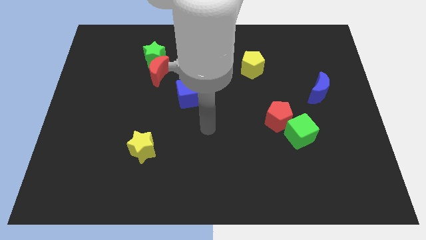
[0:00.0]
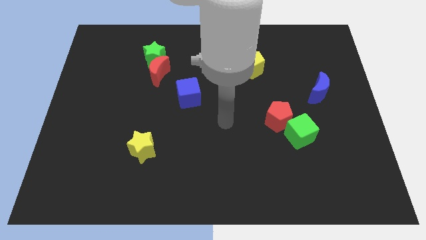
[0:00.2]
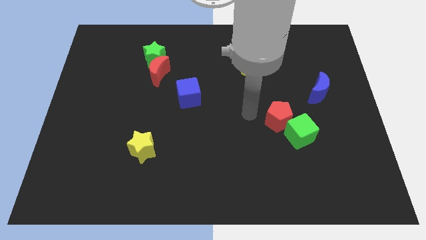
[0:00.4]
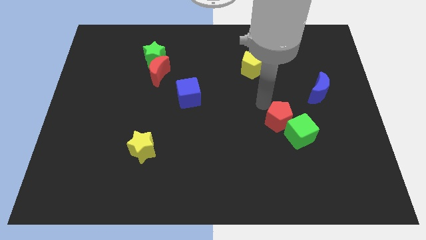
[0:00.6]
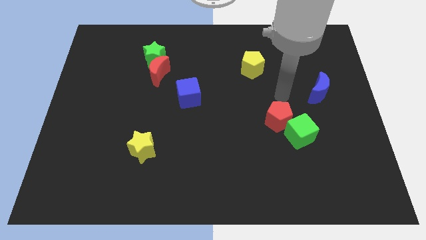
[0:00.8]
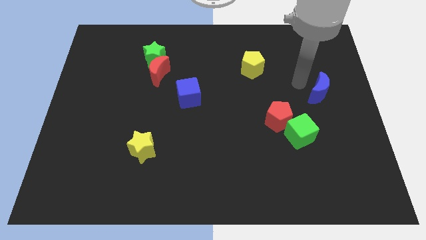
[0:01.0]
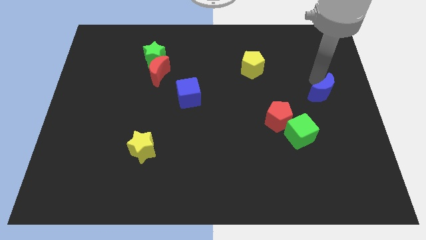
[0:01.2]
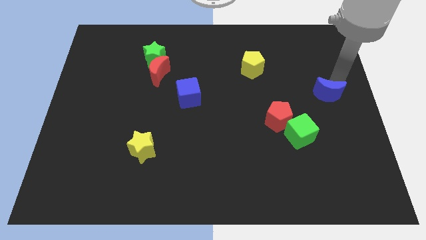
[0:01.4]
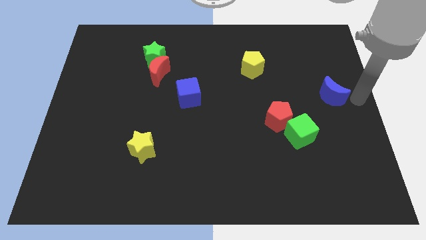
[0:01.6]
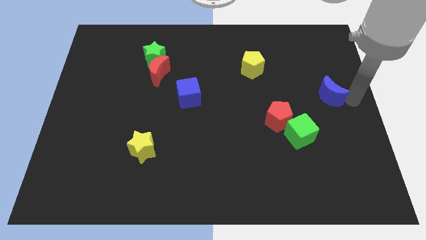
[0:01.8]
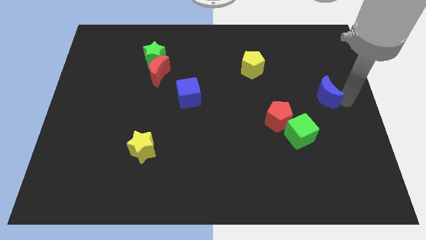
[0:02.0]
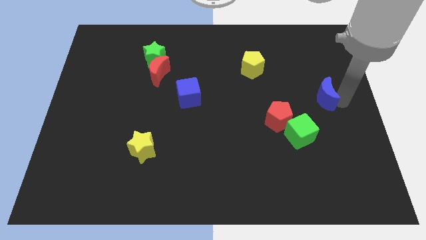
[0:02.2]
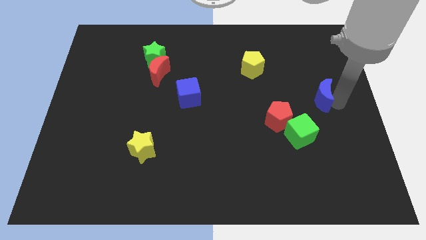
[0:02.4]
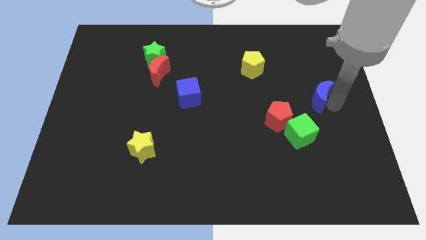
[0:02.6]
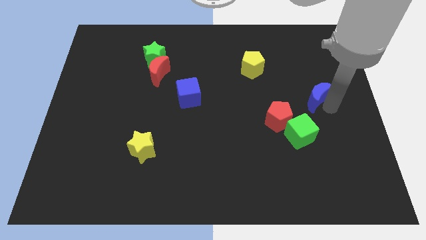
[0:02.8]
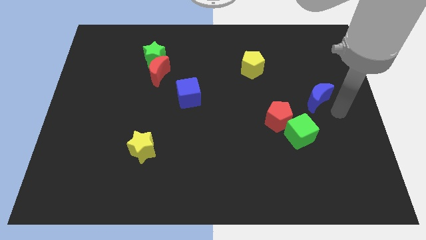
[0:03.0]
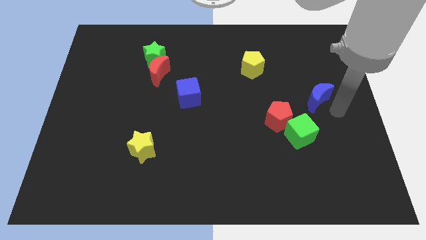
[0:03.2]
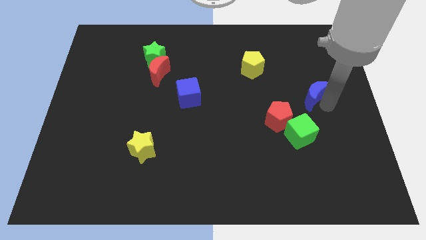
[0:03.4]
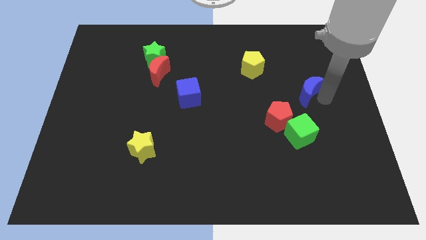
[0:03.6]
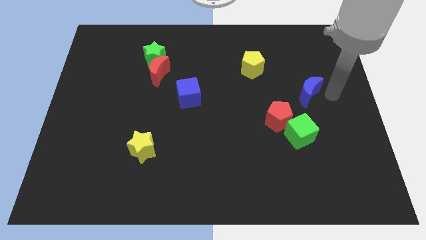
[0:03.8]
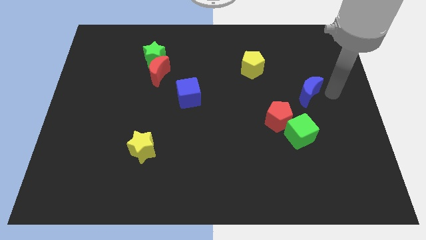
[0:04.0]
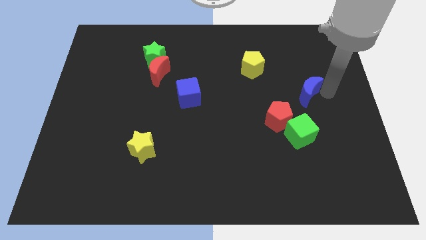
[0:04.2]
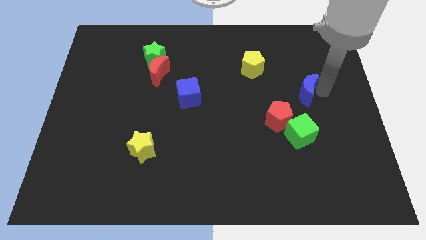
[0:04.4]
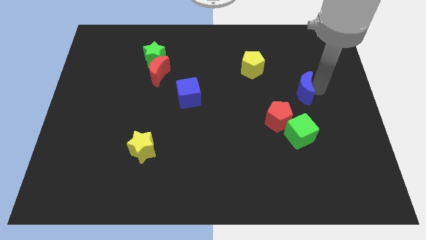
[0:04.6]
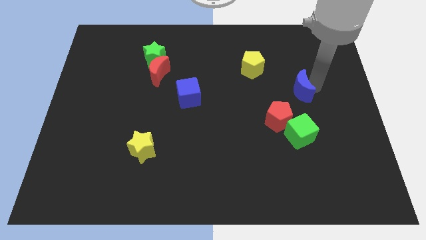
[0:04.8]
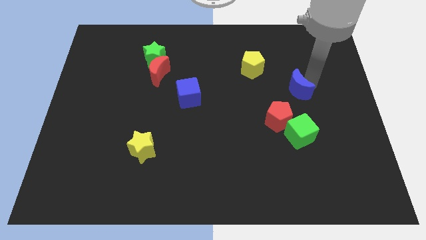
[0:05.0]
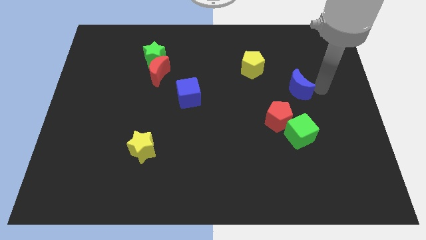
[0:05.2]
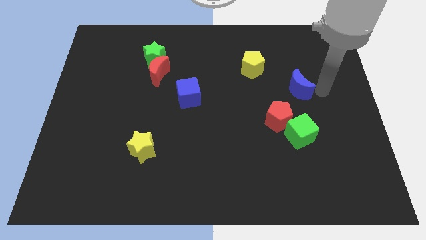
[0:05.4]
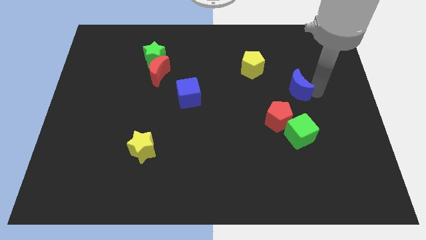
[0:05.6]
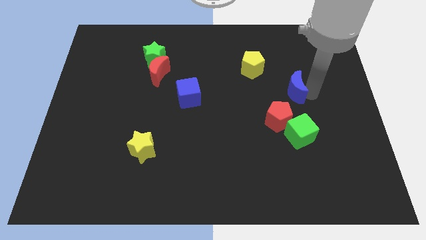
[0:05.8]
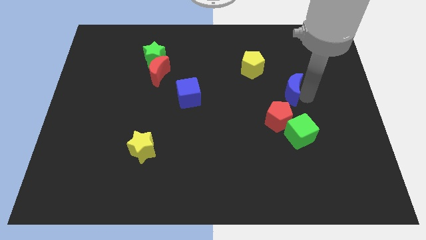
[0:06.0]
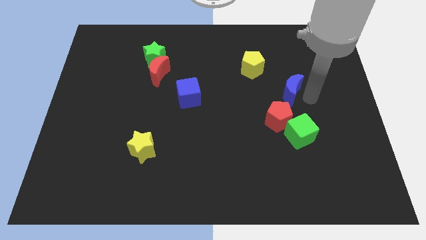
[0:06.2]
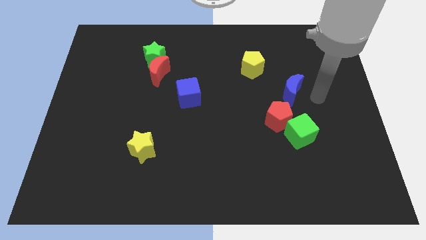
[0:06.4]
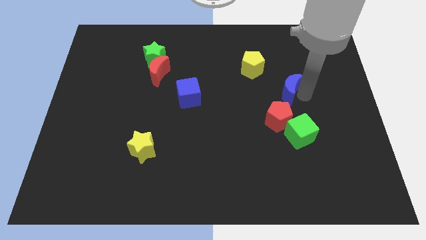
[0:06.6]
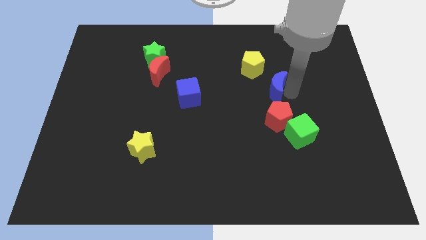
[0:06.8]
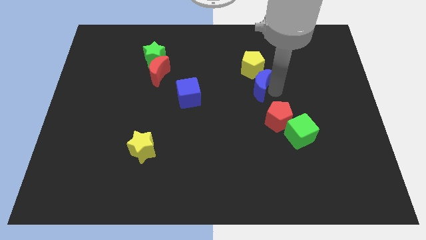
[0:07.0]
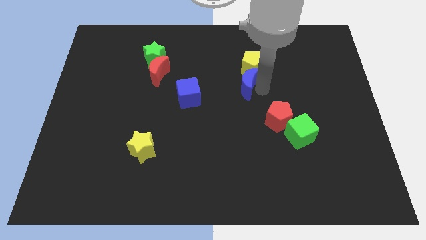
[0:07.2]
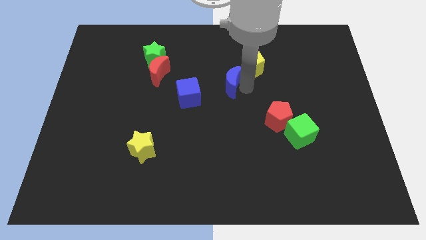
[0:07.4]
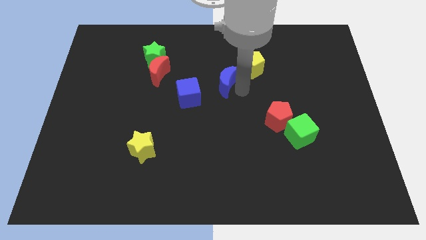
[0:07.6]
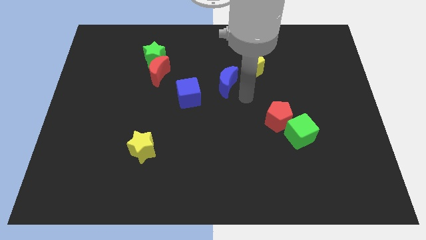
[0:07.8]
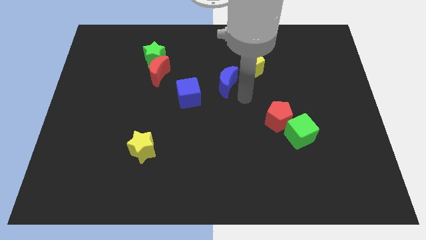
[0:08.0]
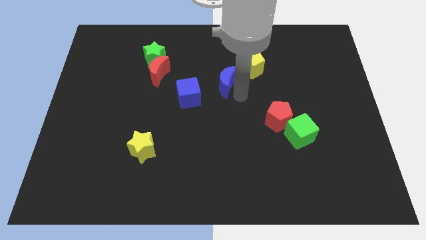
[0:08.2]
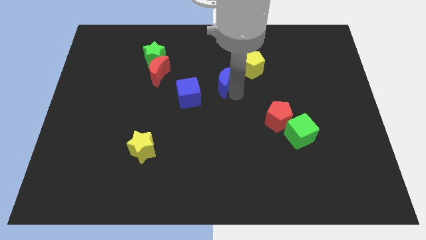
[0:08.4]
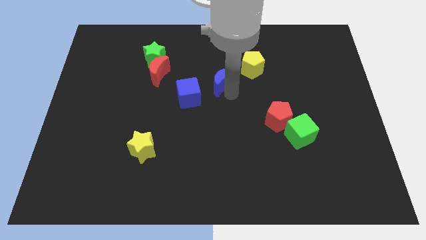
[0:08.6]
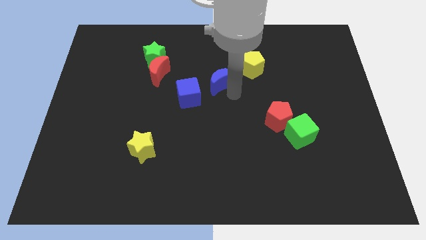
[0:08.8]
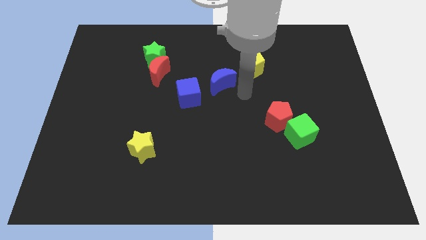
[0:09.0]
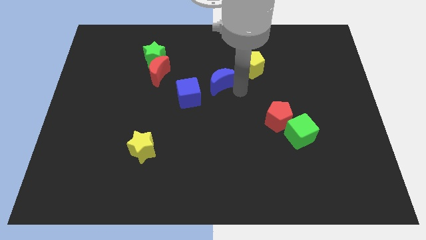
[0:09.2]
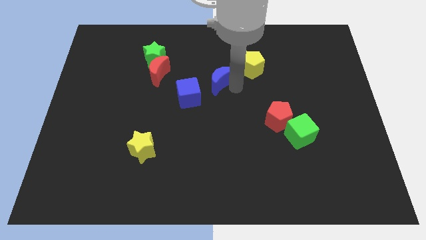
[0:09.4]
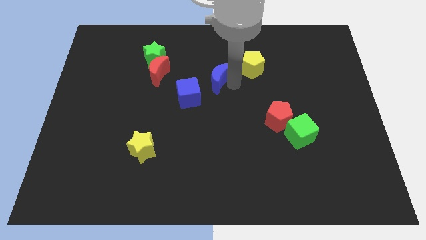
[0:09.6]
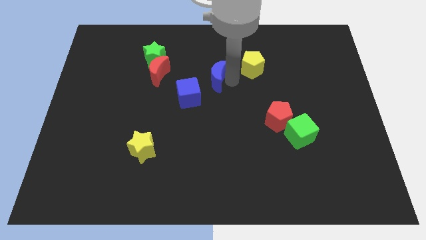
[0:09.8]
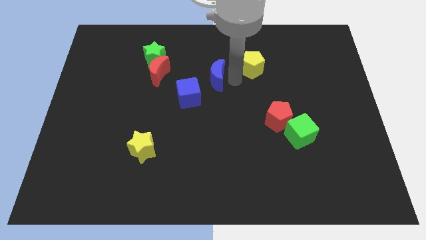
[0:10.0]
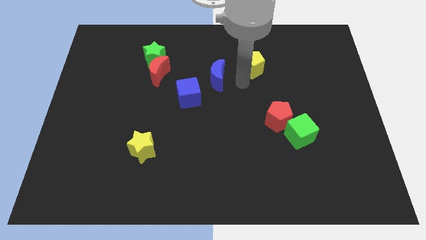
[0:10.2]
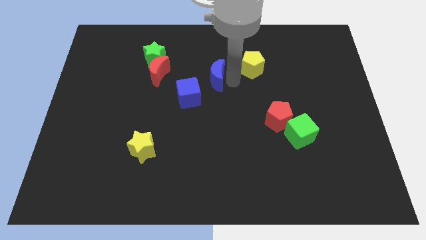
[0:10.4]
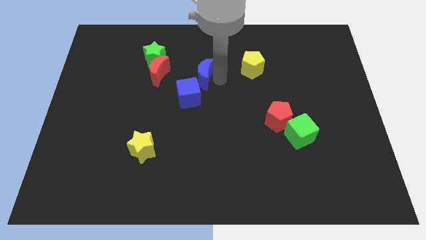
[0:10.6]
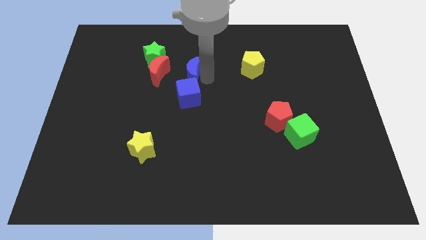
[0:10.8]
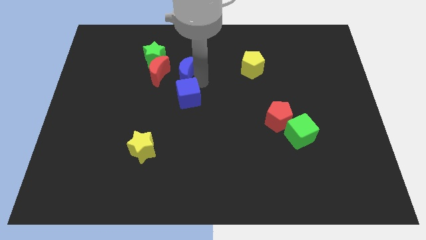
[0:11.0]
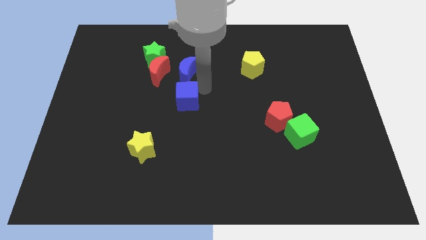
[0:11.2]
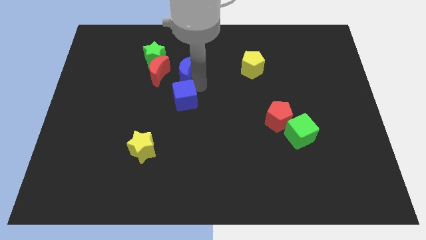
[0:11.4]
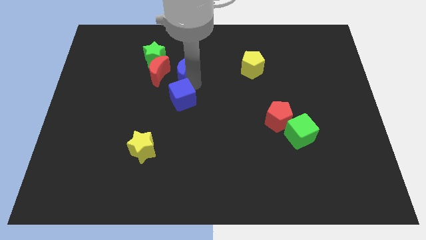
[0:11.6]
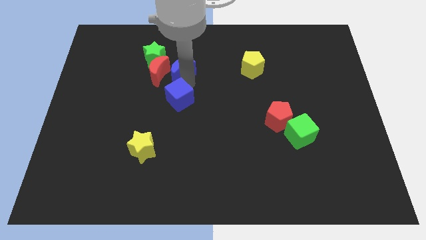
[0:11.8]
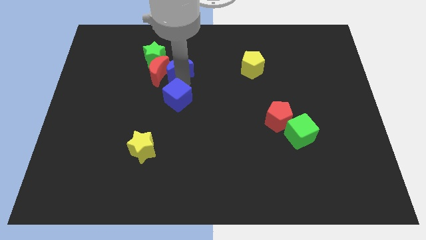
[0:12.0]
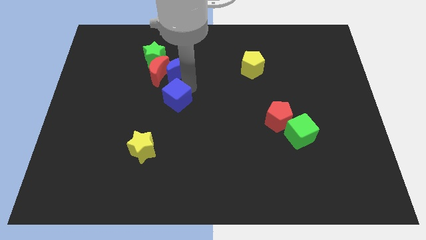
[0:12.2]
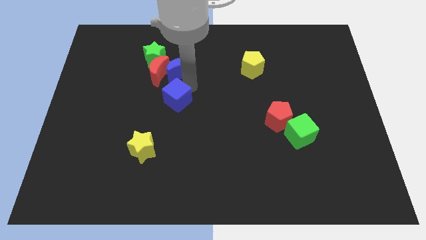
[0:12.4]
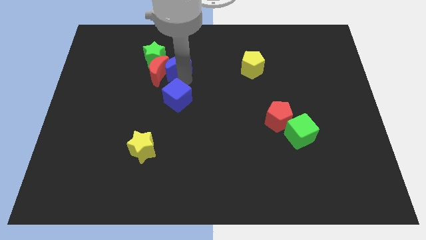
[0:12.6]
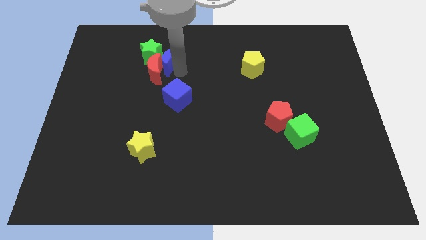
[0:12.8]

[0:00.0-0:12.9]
slide the blue moon to the green star

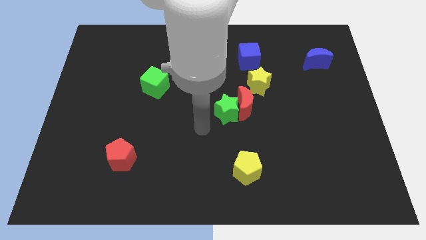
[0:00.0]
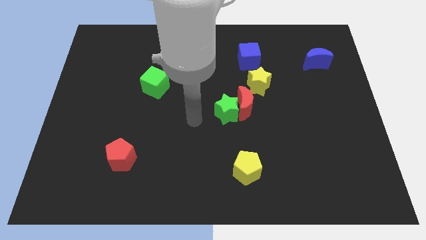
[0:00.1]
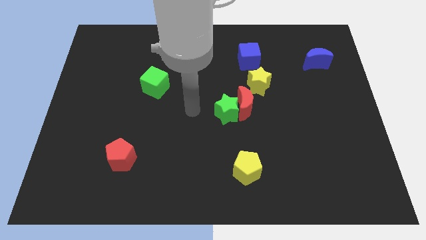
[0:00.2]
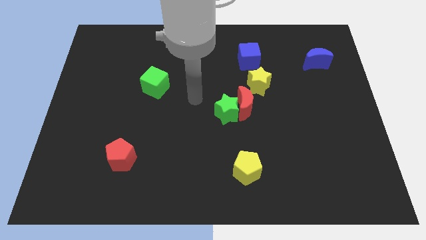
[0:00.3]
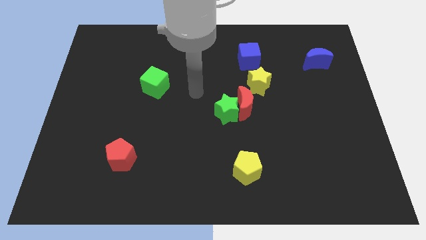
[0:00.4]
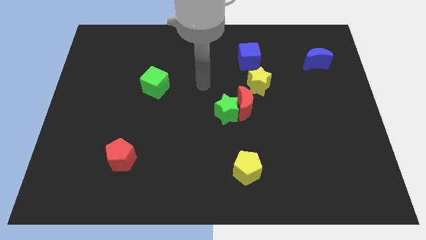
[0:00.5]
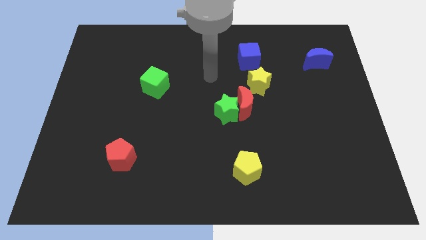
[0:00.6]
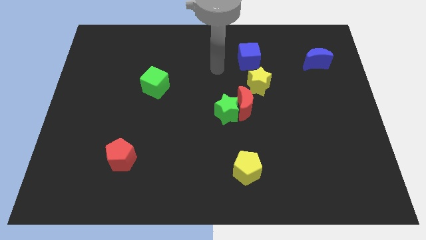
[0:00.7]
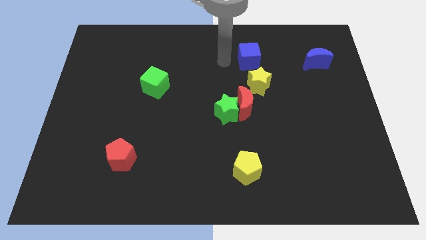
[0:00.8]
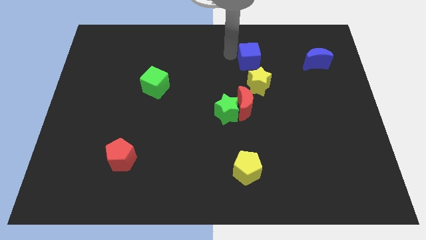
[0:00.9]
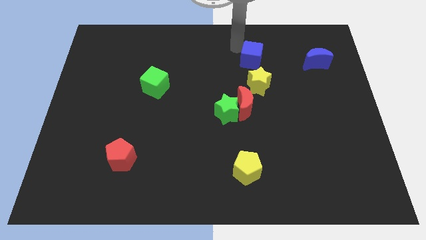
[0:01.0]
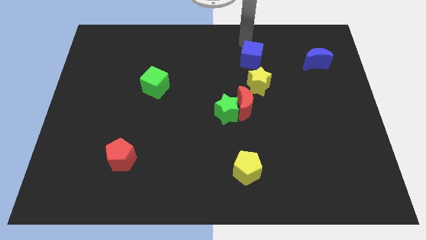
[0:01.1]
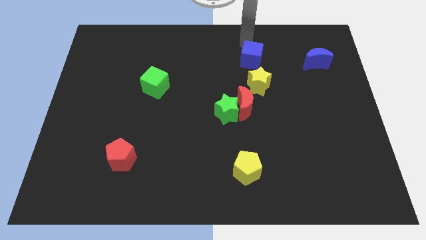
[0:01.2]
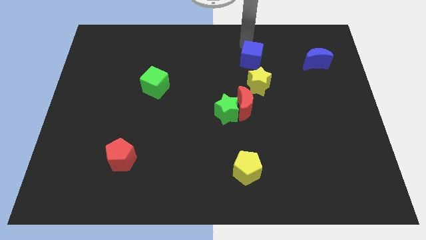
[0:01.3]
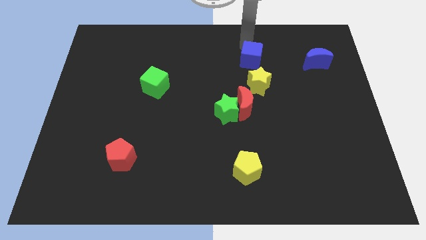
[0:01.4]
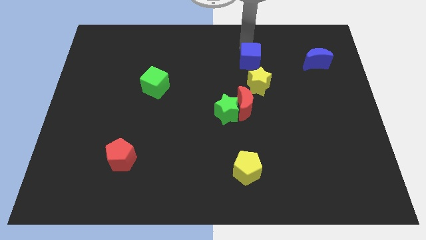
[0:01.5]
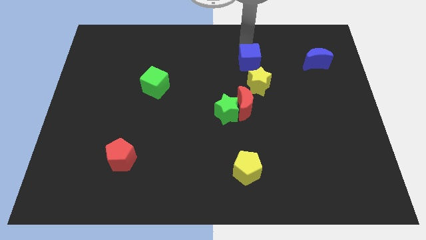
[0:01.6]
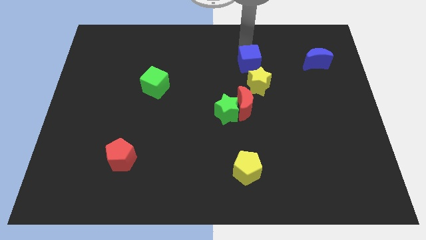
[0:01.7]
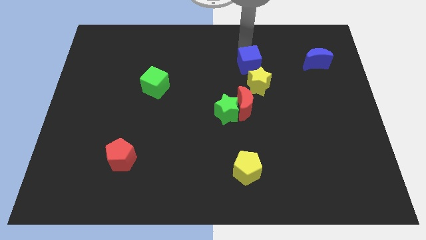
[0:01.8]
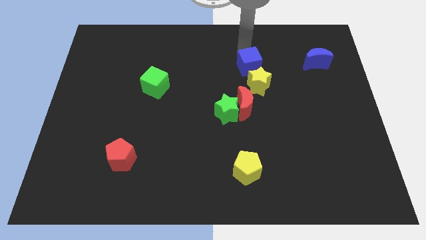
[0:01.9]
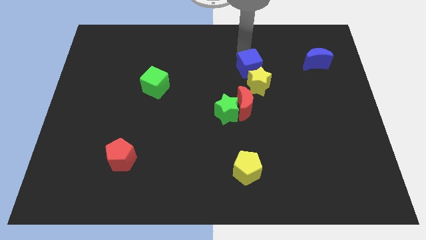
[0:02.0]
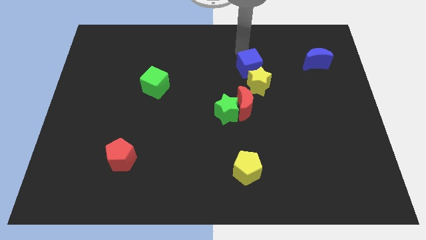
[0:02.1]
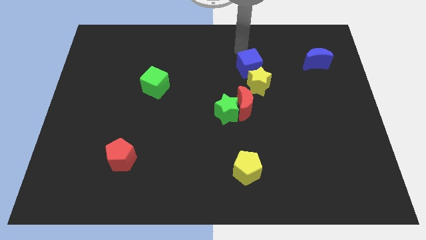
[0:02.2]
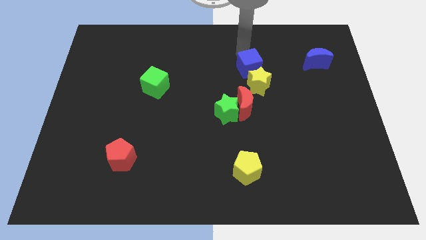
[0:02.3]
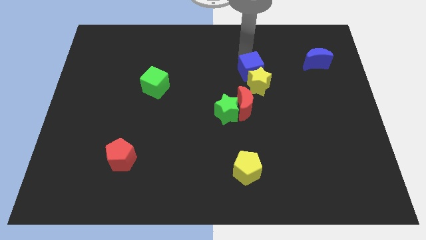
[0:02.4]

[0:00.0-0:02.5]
move the blue cube close to the yellow star
